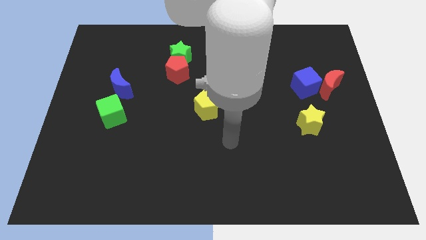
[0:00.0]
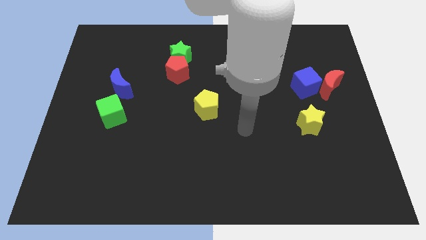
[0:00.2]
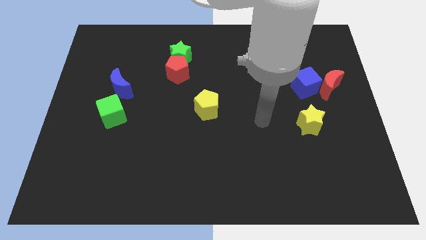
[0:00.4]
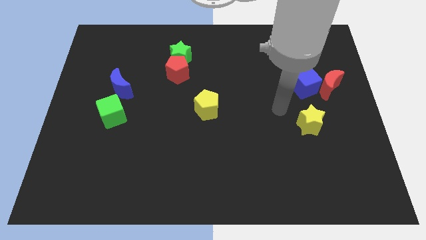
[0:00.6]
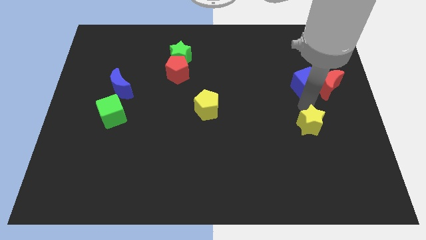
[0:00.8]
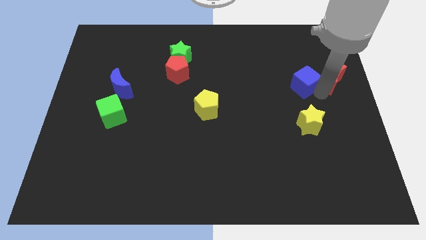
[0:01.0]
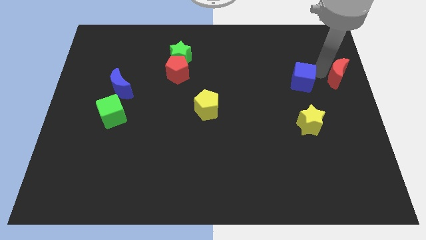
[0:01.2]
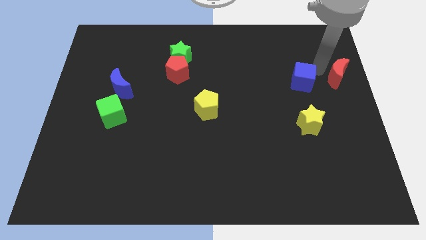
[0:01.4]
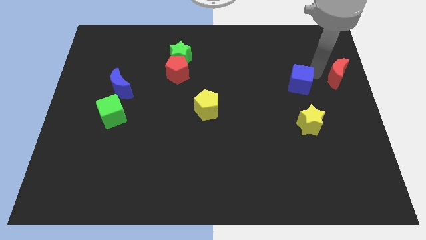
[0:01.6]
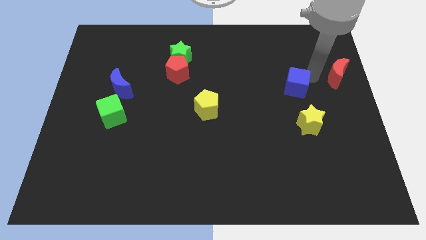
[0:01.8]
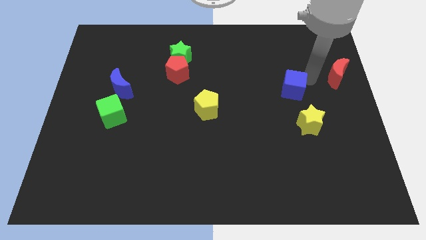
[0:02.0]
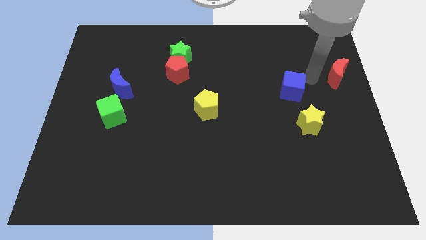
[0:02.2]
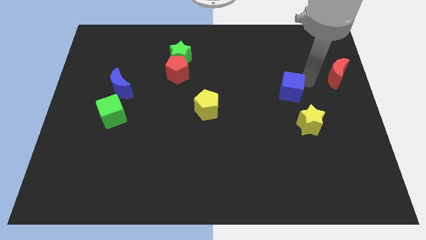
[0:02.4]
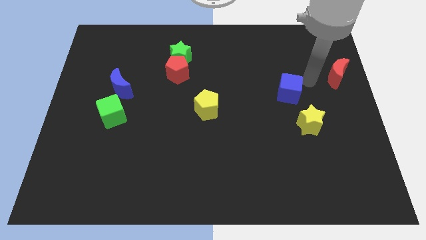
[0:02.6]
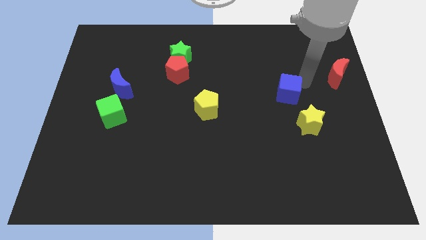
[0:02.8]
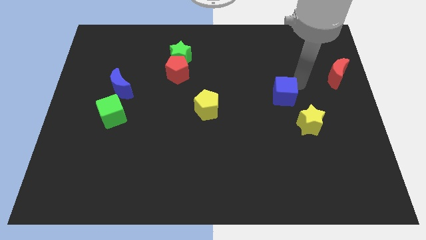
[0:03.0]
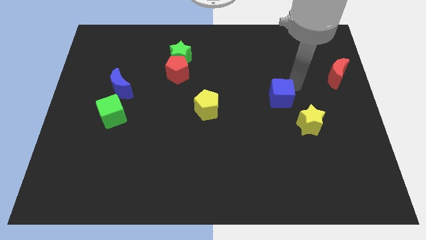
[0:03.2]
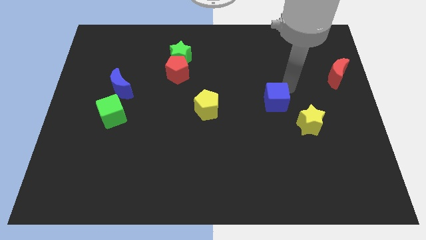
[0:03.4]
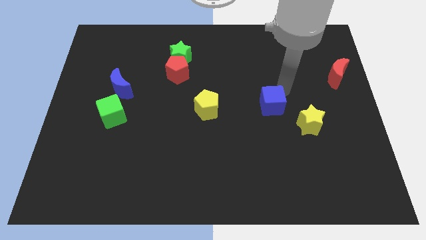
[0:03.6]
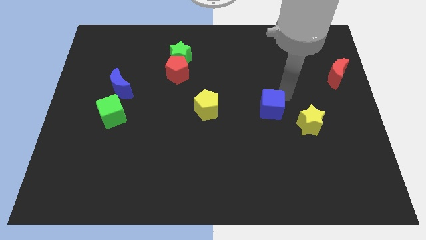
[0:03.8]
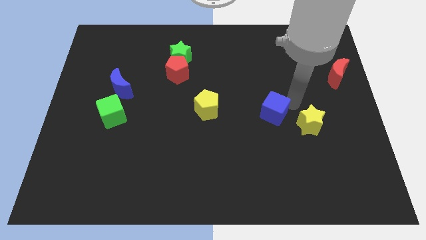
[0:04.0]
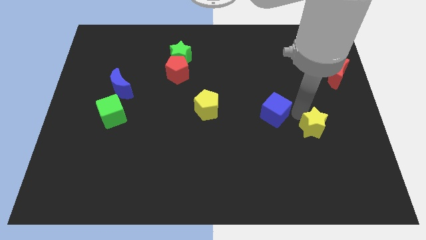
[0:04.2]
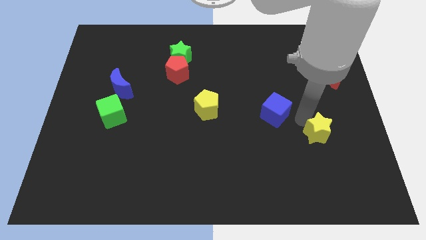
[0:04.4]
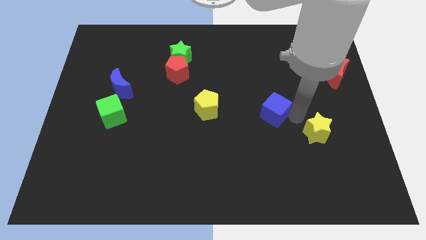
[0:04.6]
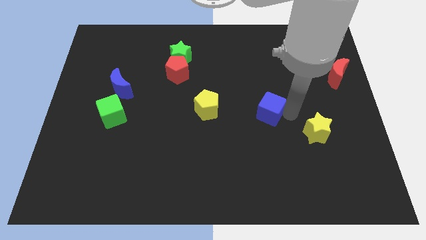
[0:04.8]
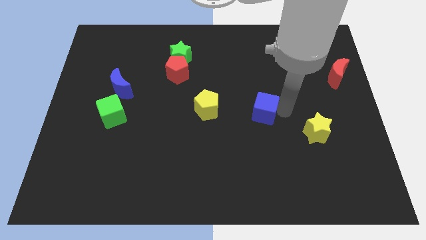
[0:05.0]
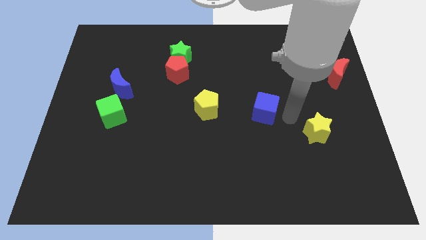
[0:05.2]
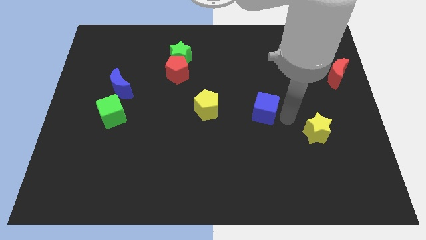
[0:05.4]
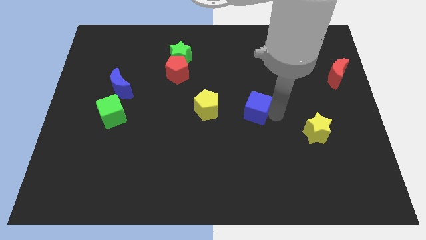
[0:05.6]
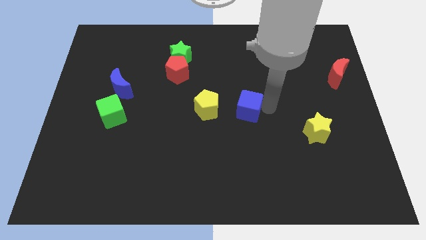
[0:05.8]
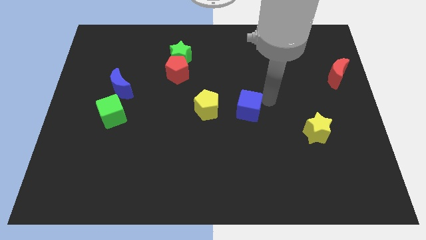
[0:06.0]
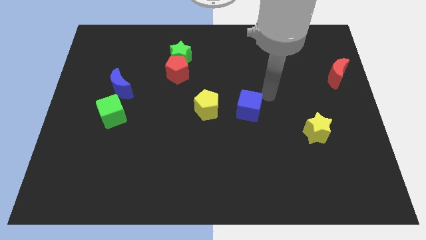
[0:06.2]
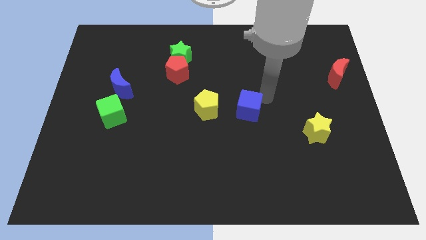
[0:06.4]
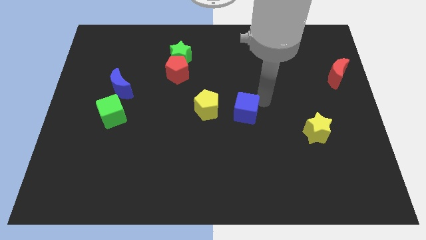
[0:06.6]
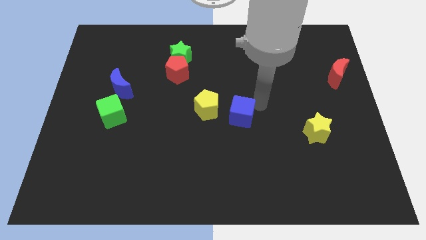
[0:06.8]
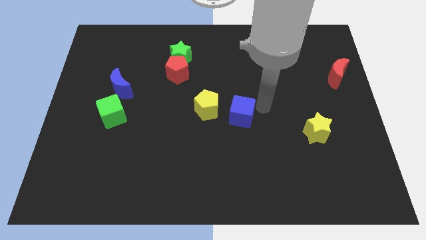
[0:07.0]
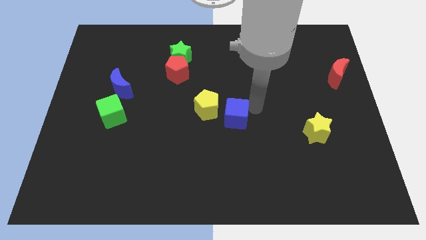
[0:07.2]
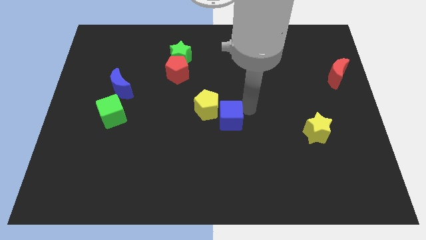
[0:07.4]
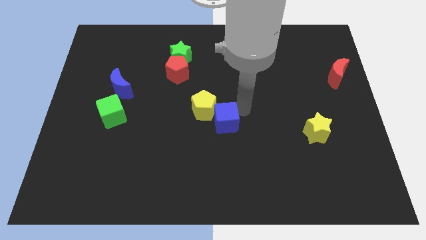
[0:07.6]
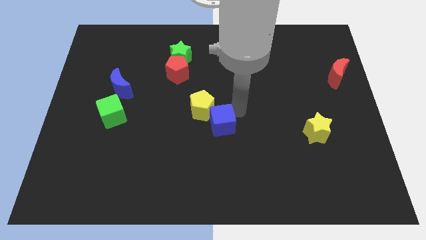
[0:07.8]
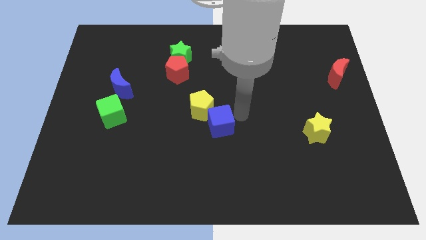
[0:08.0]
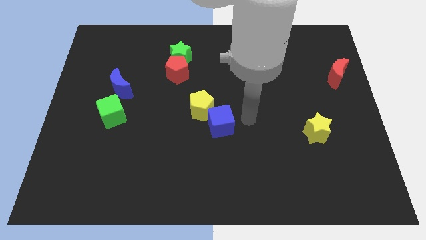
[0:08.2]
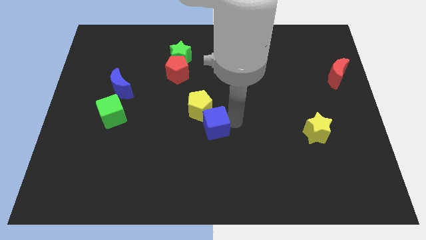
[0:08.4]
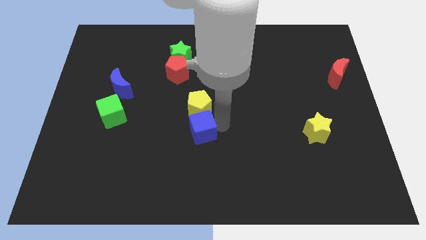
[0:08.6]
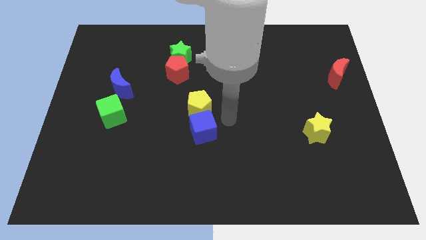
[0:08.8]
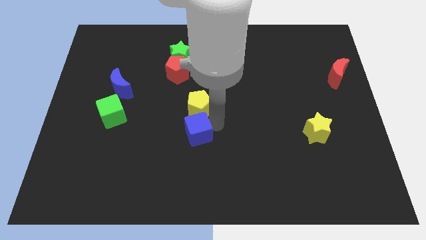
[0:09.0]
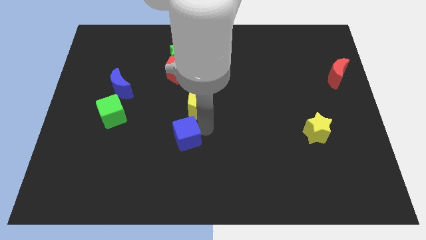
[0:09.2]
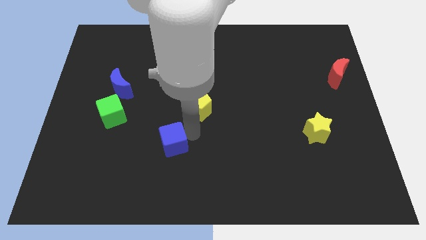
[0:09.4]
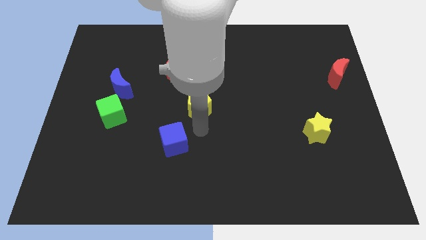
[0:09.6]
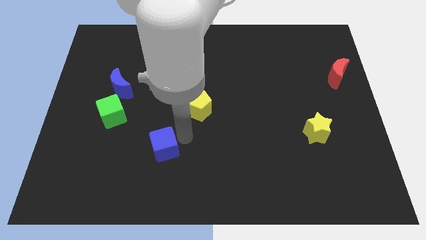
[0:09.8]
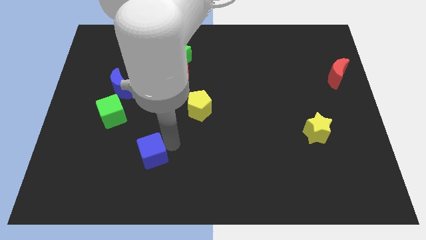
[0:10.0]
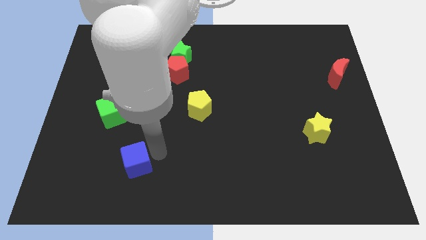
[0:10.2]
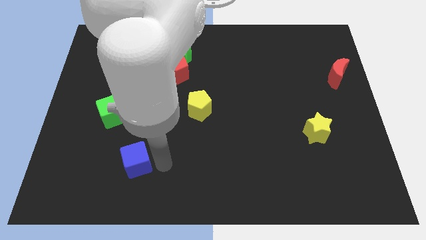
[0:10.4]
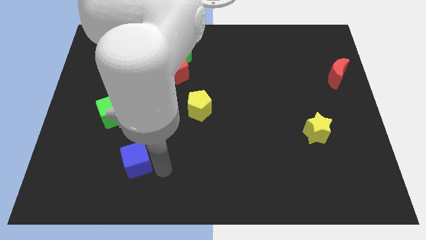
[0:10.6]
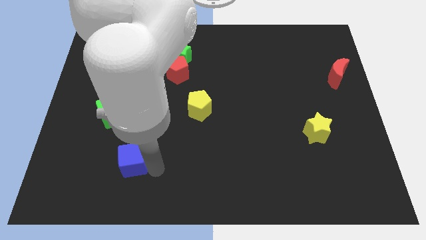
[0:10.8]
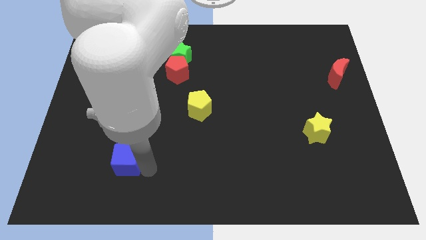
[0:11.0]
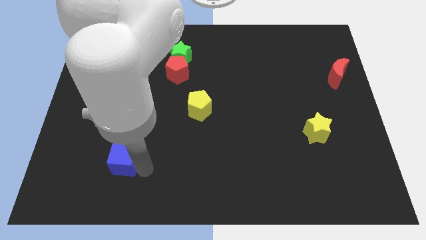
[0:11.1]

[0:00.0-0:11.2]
move the blue cube below the green cube
